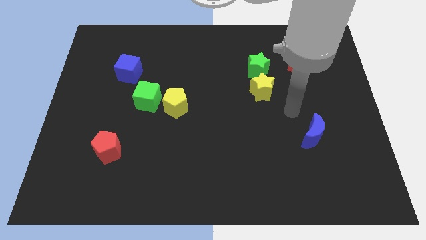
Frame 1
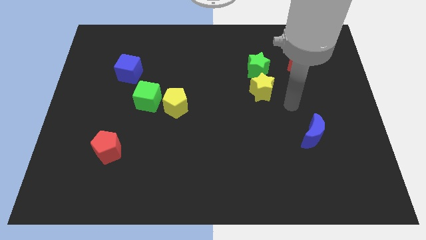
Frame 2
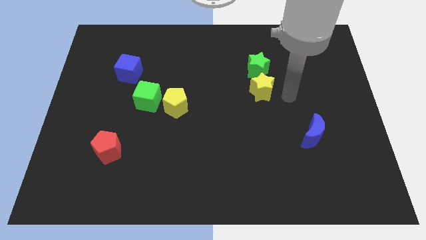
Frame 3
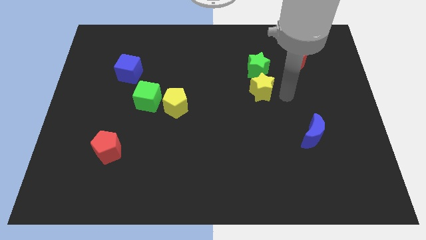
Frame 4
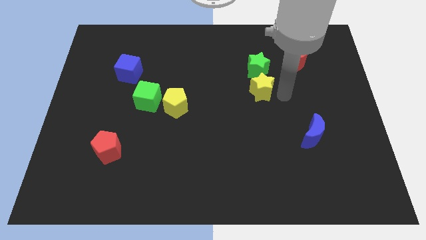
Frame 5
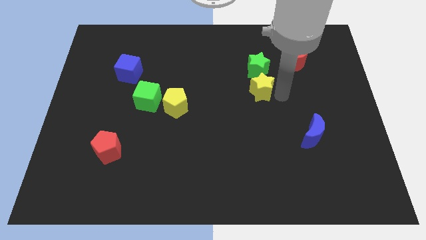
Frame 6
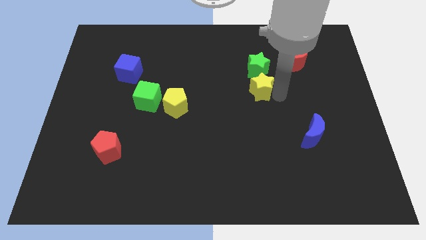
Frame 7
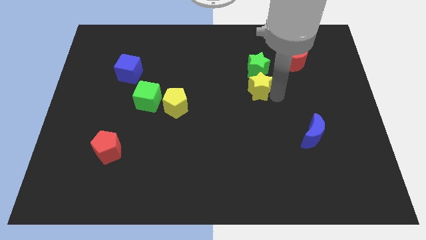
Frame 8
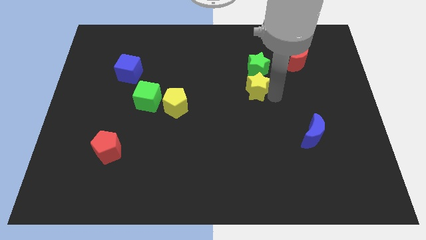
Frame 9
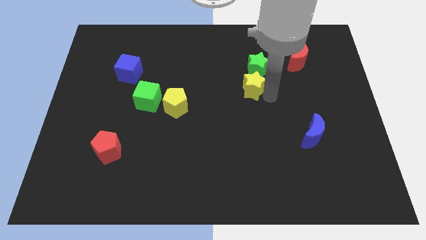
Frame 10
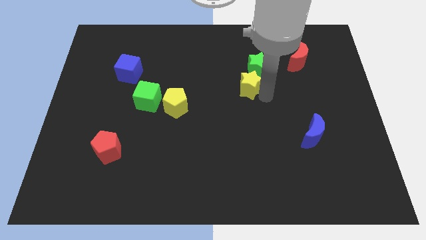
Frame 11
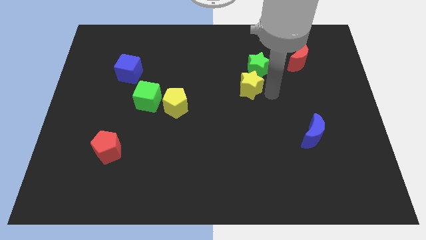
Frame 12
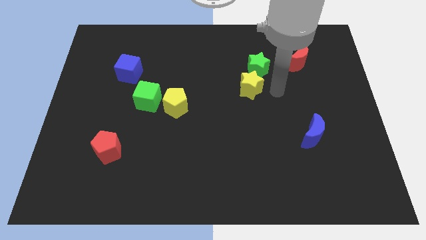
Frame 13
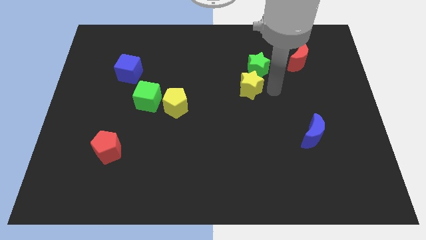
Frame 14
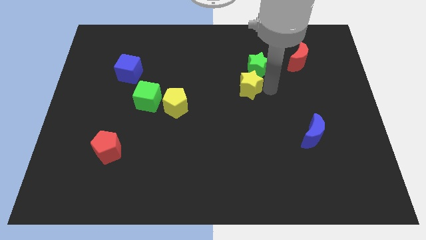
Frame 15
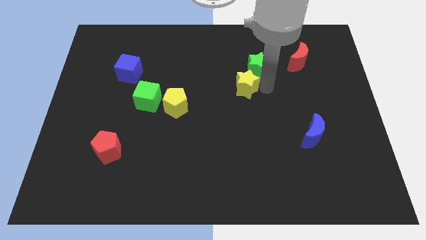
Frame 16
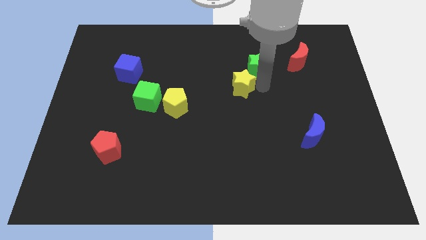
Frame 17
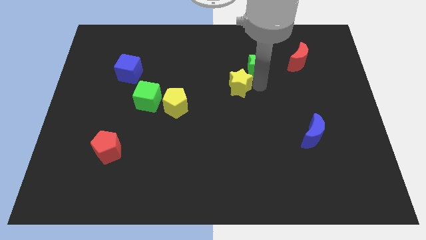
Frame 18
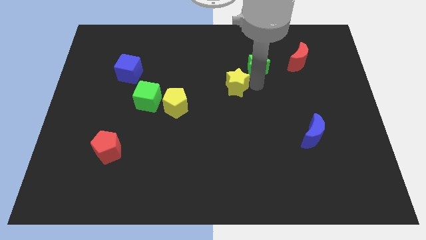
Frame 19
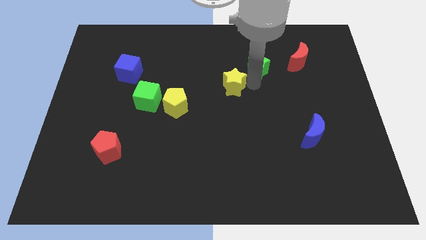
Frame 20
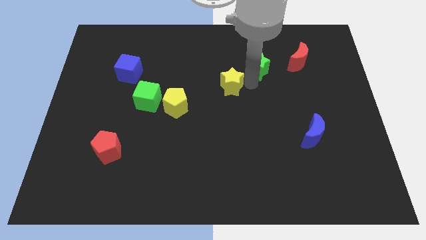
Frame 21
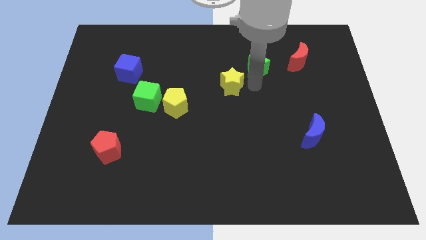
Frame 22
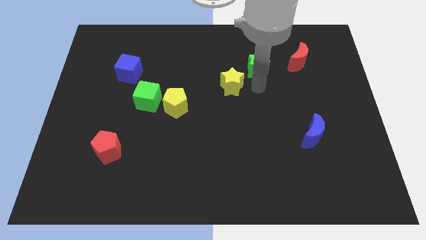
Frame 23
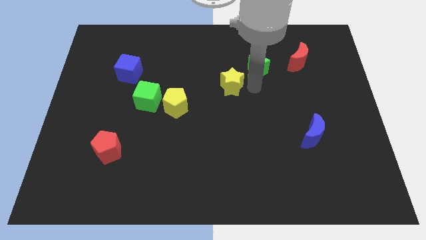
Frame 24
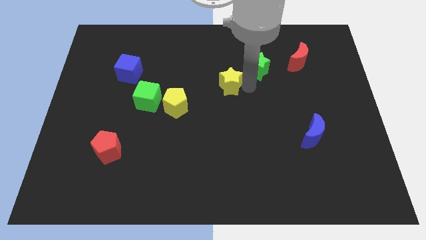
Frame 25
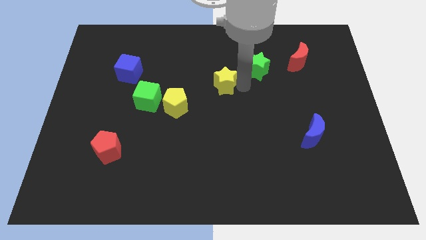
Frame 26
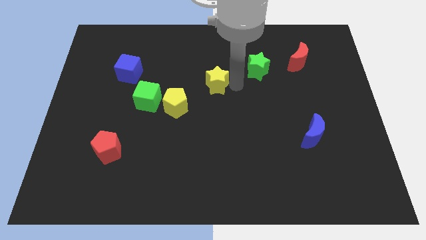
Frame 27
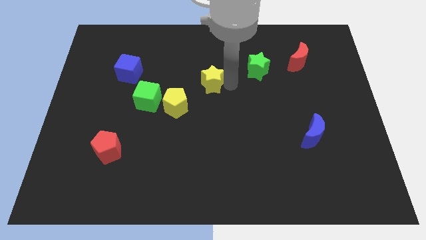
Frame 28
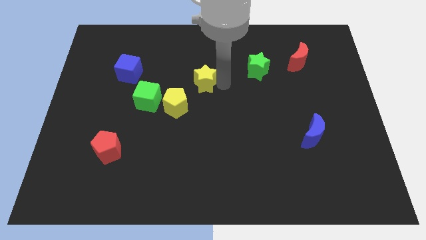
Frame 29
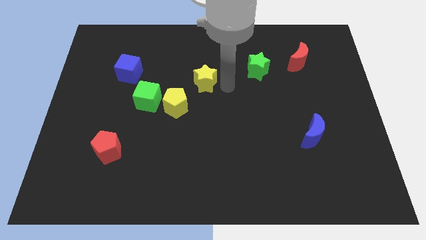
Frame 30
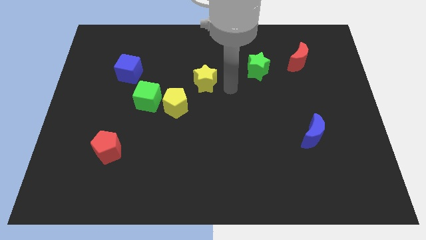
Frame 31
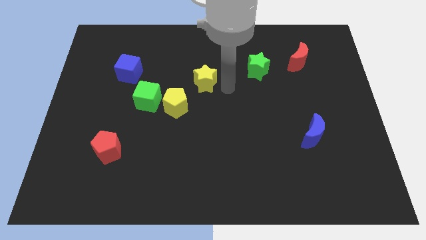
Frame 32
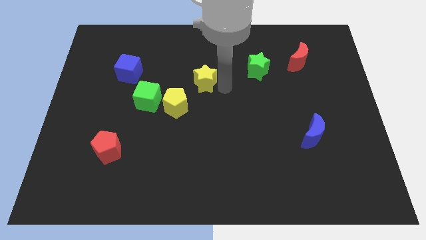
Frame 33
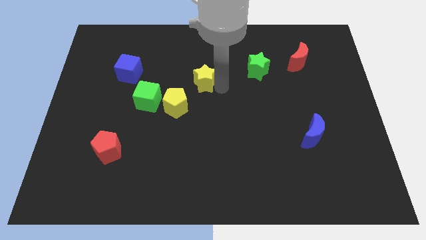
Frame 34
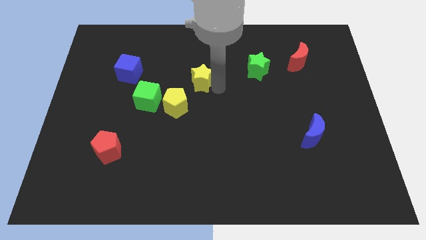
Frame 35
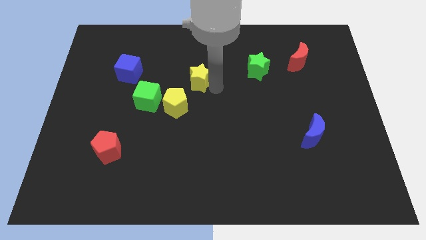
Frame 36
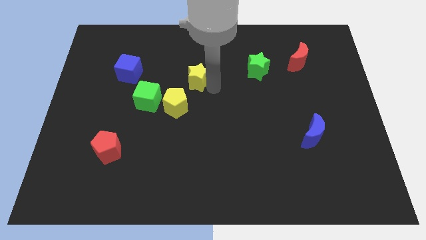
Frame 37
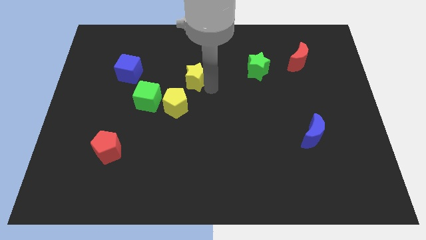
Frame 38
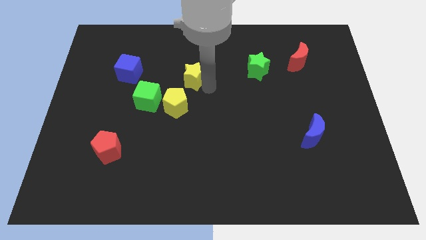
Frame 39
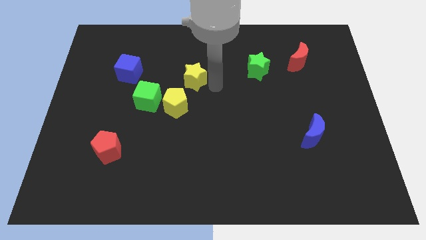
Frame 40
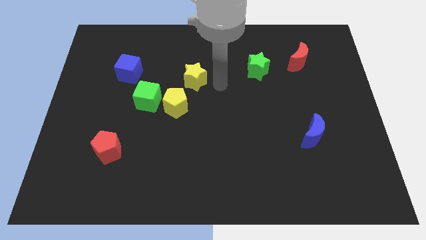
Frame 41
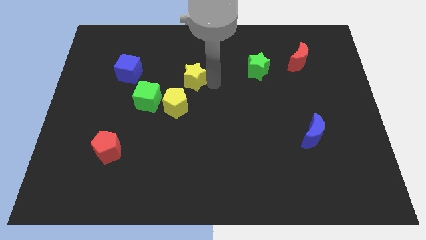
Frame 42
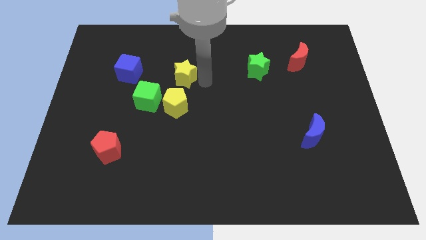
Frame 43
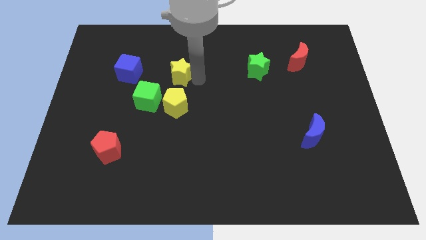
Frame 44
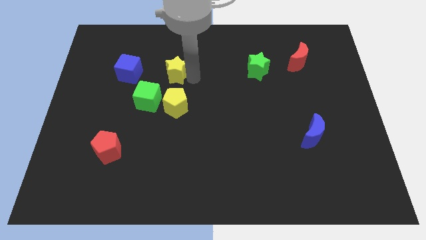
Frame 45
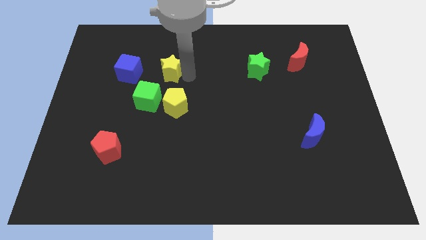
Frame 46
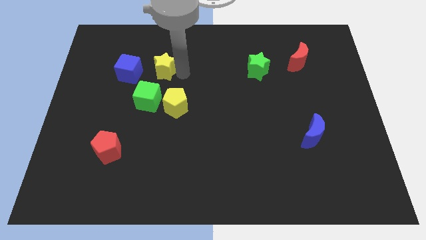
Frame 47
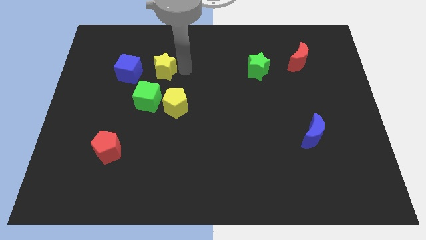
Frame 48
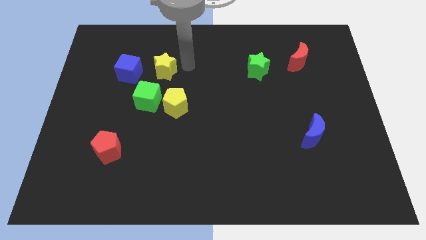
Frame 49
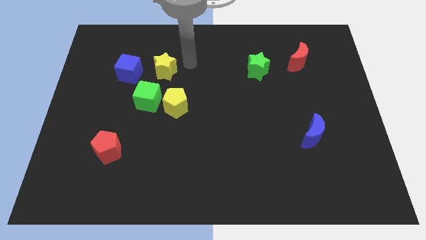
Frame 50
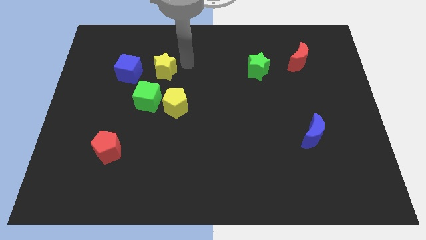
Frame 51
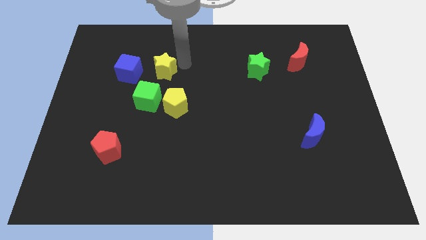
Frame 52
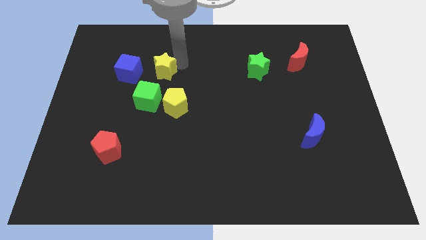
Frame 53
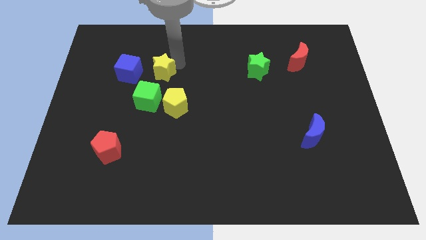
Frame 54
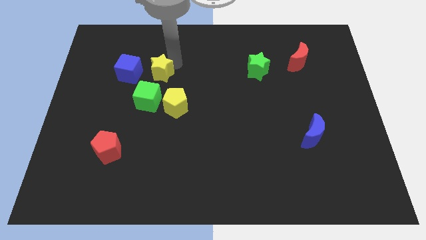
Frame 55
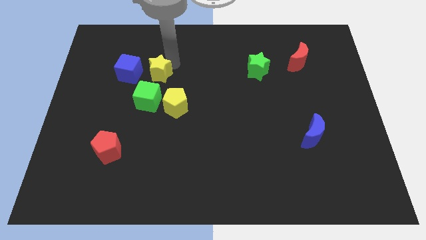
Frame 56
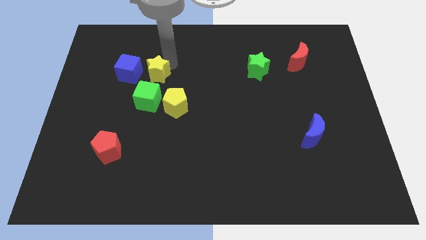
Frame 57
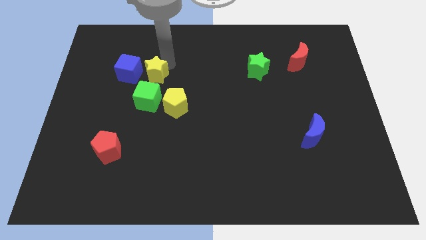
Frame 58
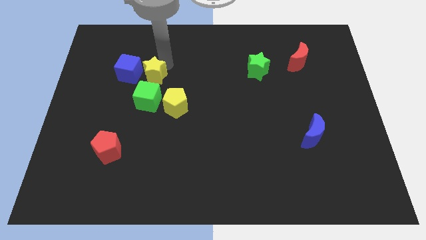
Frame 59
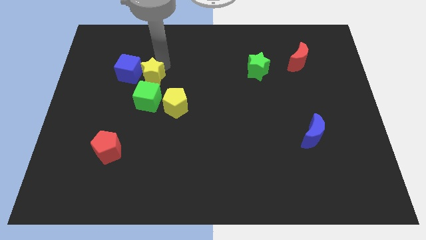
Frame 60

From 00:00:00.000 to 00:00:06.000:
slide the yellow star towards the blue cube

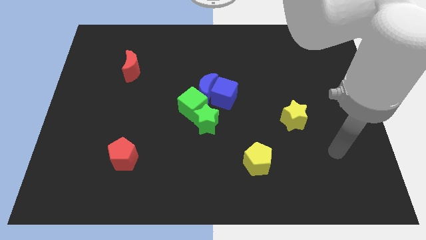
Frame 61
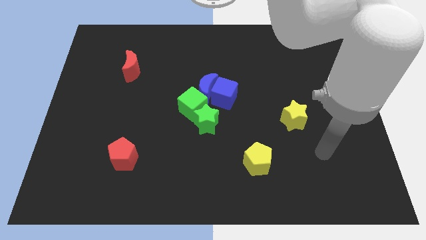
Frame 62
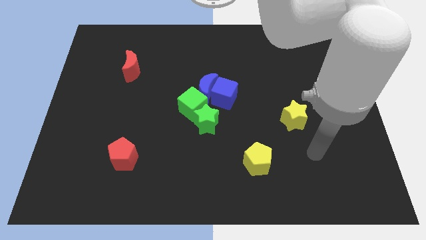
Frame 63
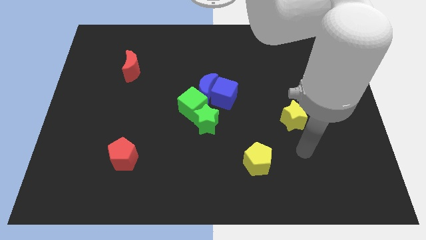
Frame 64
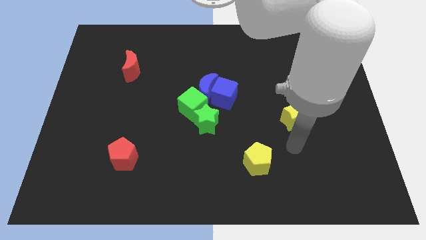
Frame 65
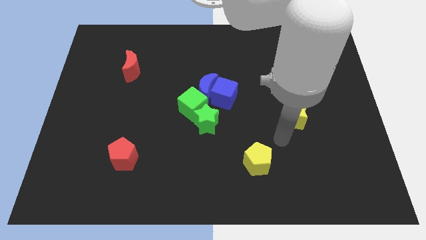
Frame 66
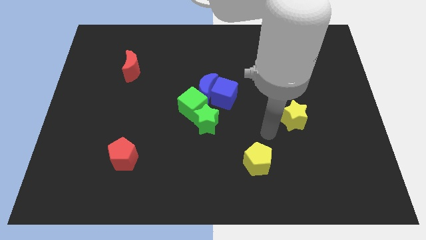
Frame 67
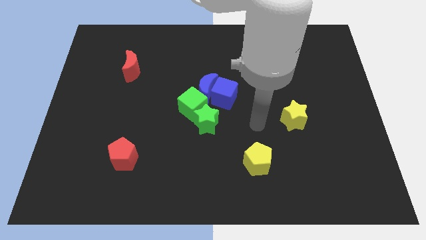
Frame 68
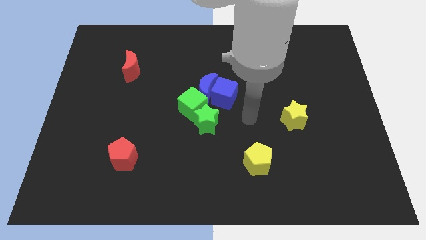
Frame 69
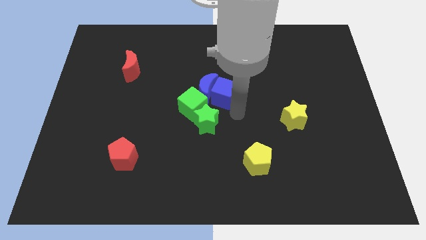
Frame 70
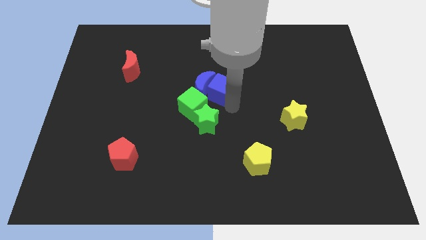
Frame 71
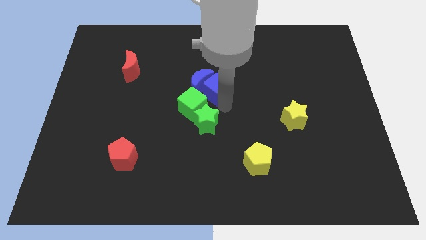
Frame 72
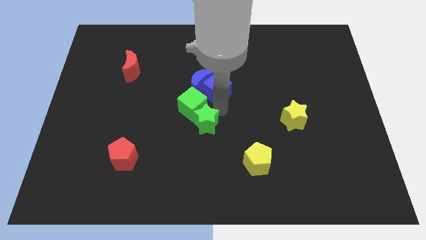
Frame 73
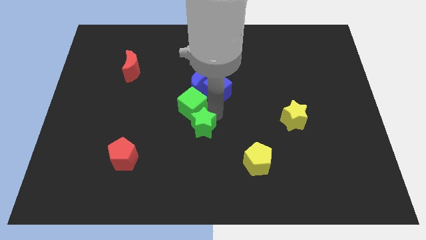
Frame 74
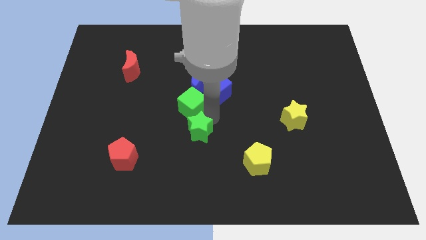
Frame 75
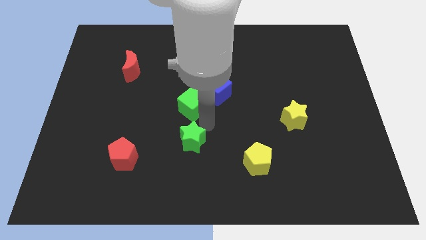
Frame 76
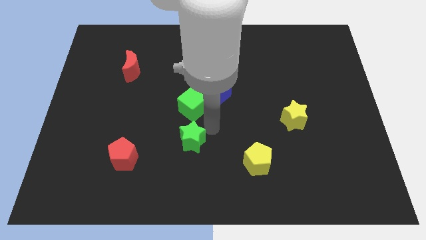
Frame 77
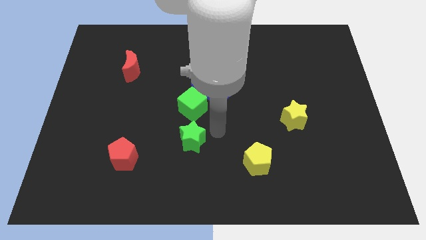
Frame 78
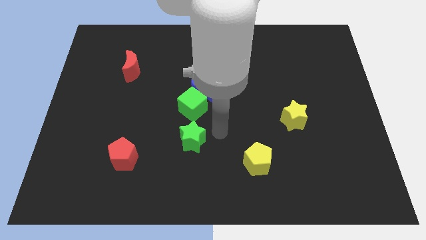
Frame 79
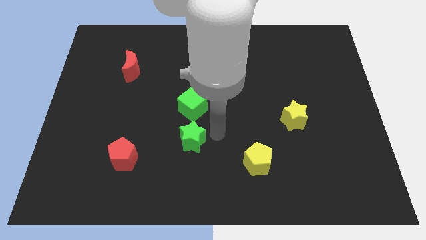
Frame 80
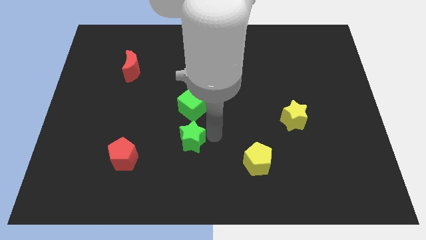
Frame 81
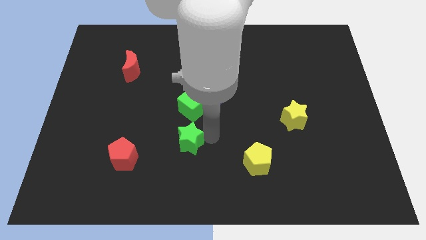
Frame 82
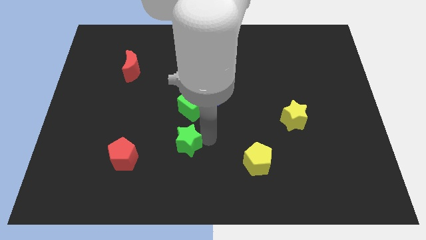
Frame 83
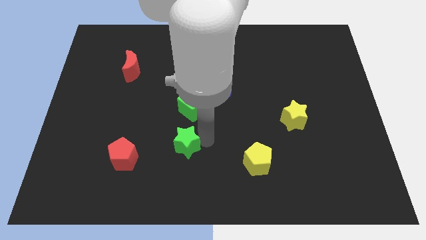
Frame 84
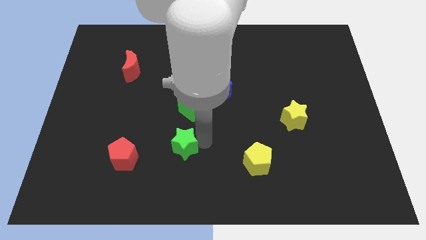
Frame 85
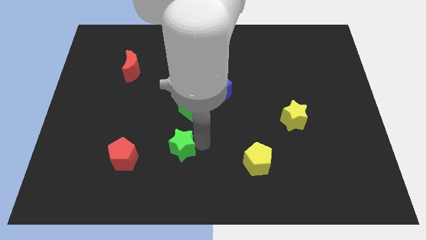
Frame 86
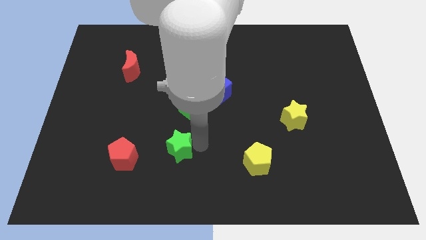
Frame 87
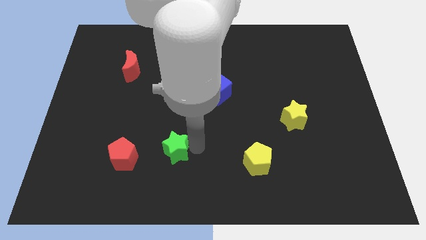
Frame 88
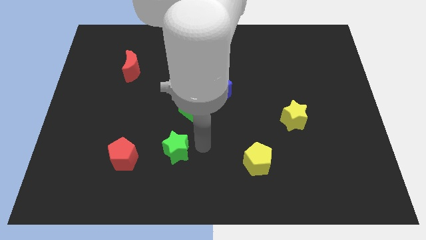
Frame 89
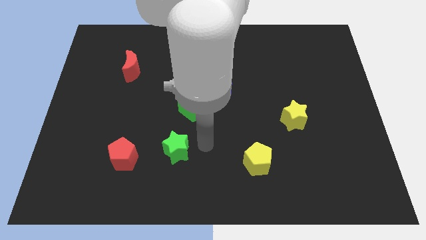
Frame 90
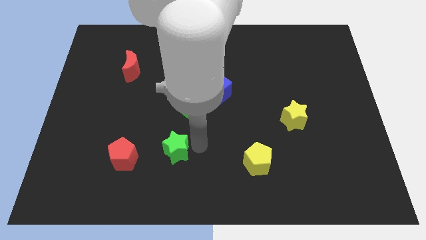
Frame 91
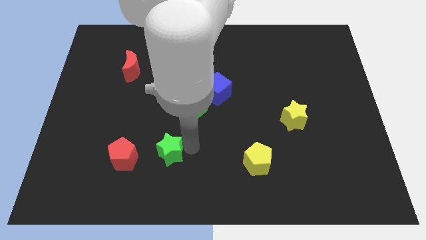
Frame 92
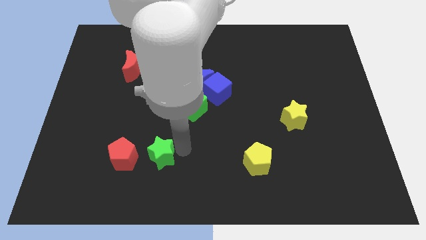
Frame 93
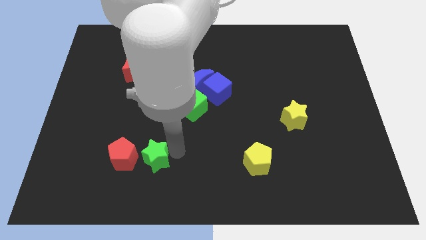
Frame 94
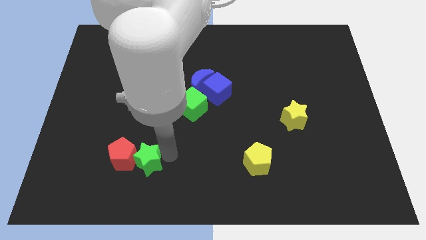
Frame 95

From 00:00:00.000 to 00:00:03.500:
slide the green star to the red pentagon
